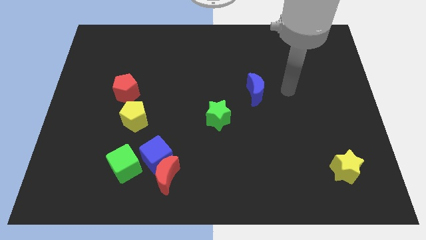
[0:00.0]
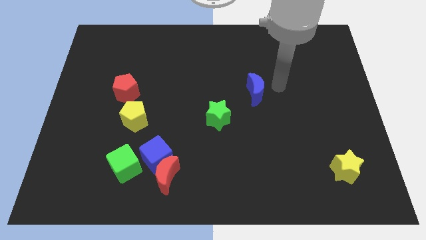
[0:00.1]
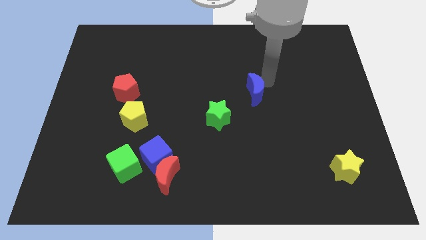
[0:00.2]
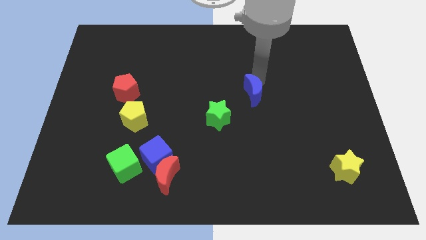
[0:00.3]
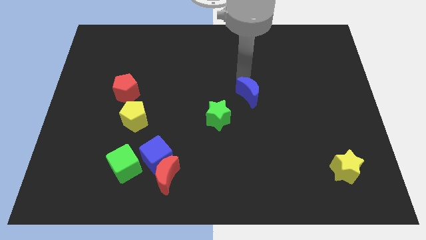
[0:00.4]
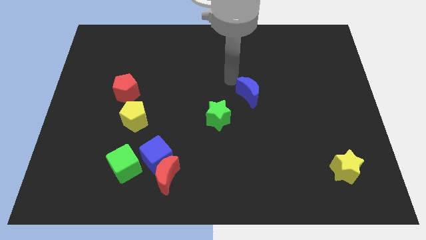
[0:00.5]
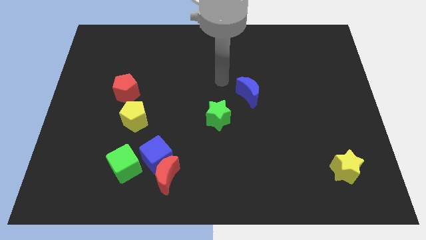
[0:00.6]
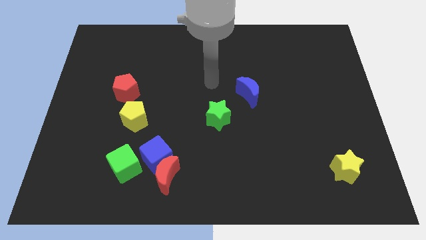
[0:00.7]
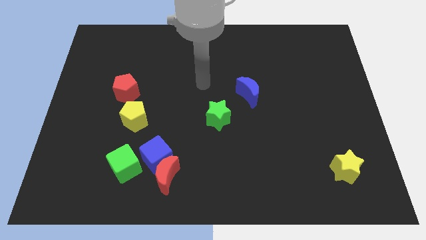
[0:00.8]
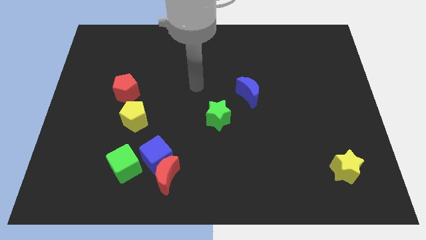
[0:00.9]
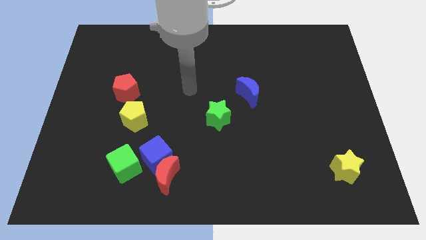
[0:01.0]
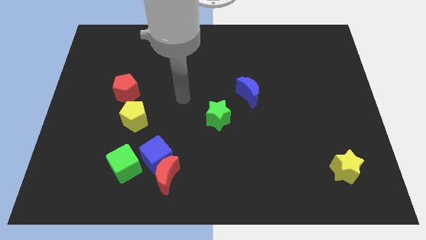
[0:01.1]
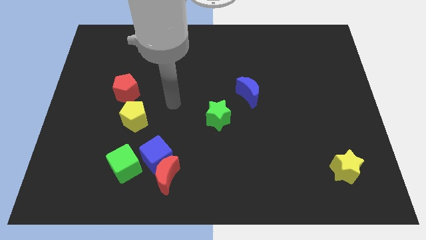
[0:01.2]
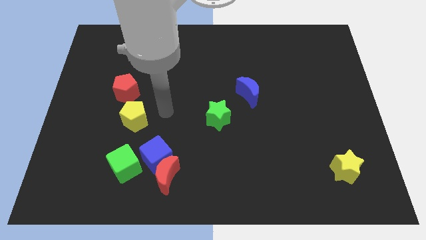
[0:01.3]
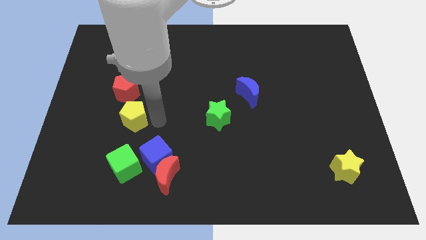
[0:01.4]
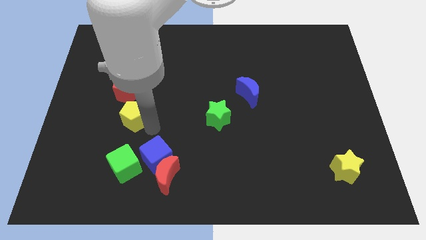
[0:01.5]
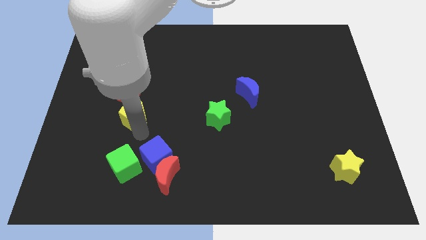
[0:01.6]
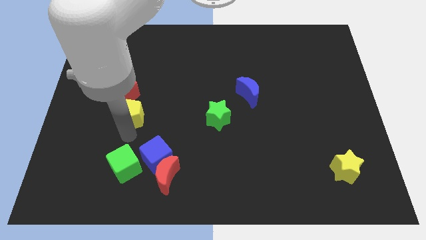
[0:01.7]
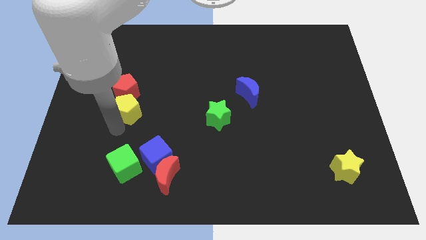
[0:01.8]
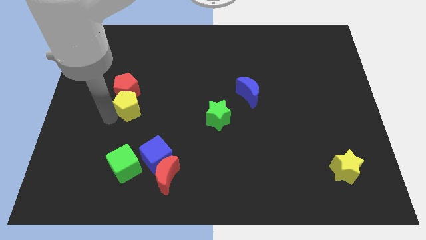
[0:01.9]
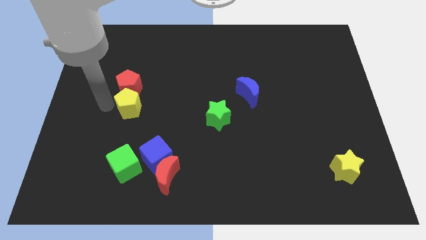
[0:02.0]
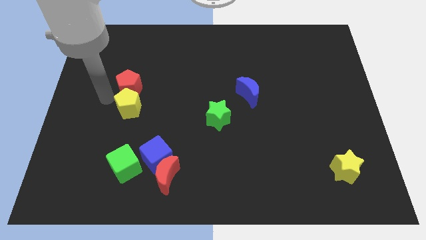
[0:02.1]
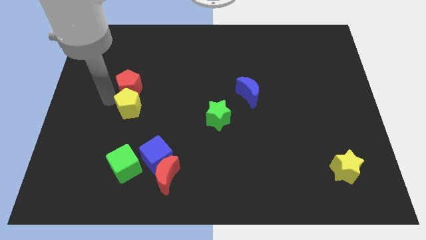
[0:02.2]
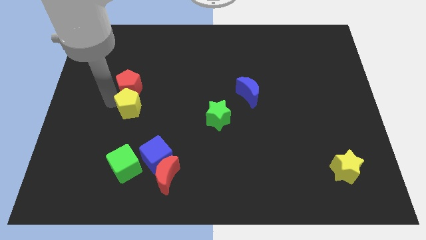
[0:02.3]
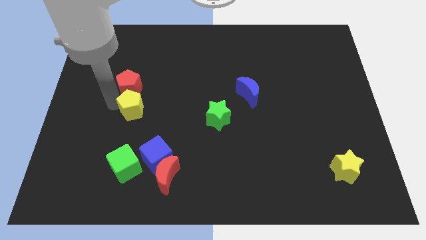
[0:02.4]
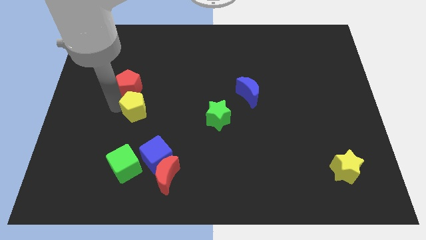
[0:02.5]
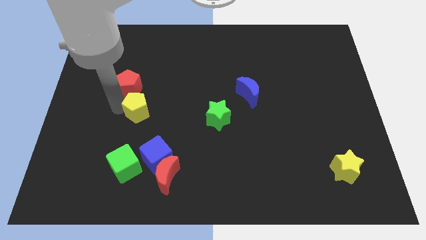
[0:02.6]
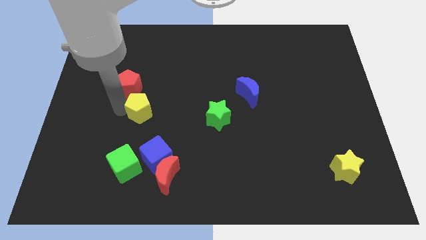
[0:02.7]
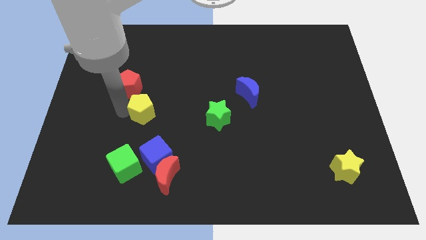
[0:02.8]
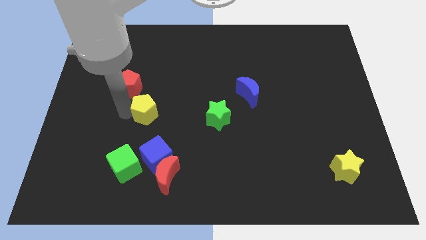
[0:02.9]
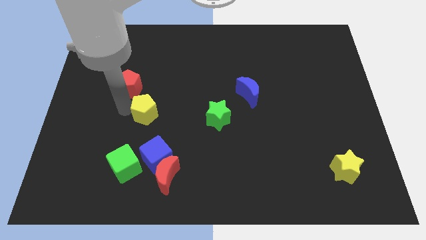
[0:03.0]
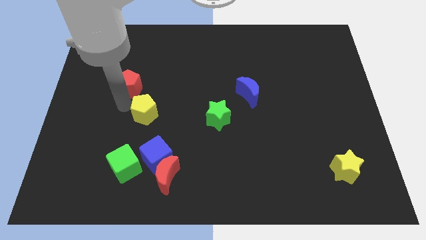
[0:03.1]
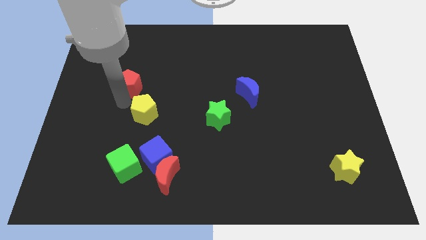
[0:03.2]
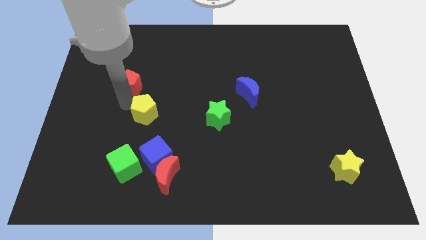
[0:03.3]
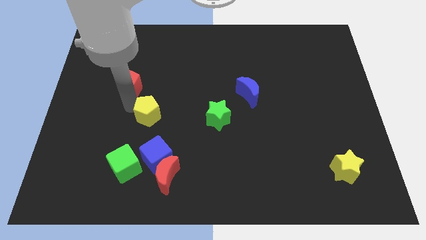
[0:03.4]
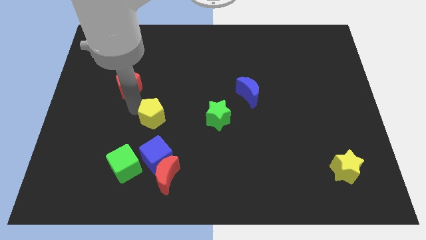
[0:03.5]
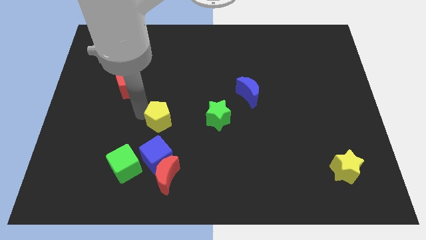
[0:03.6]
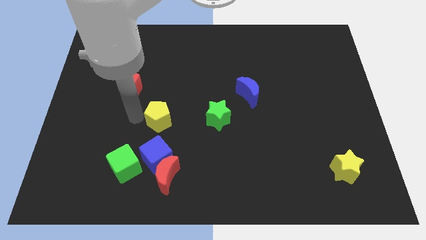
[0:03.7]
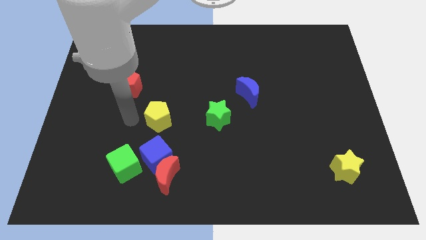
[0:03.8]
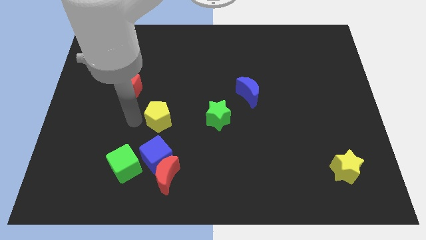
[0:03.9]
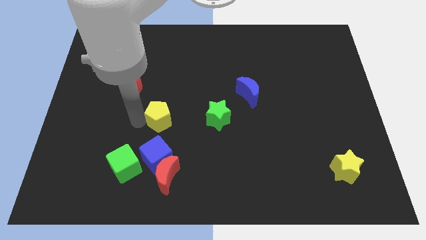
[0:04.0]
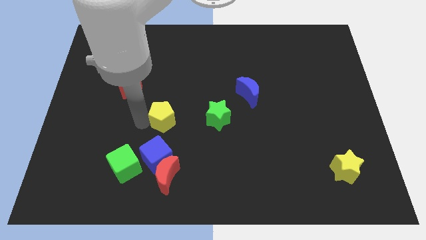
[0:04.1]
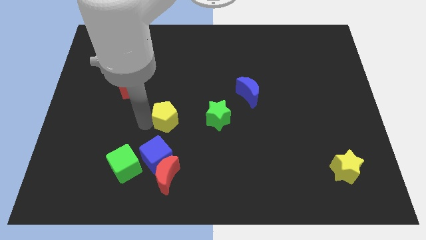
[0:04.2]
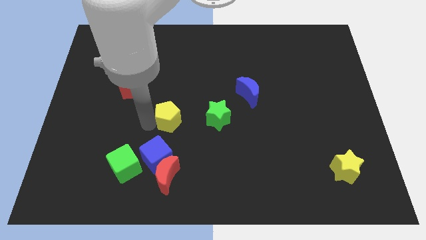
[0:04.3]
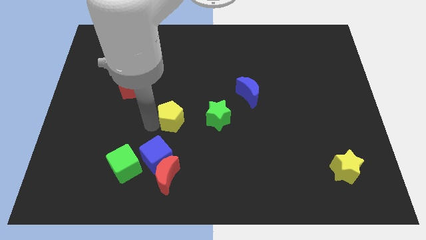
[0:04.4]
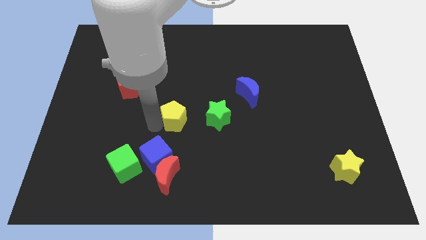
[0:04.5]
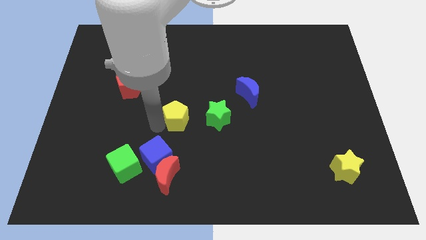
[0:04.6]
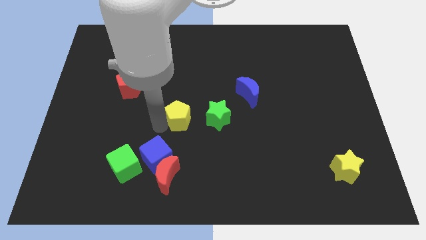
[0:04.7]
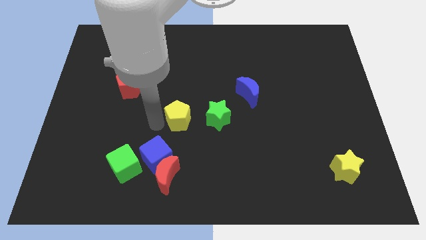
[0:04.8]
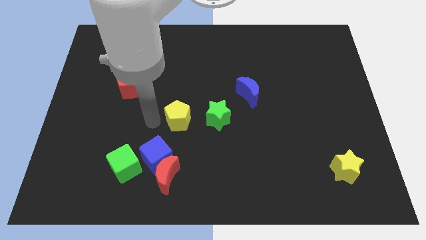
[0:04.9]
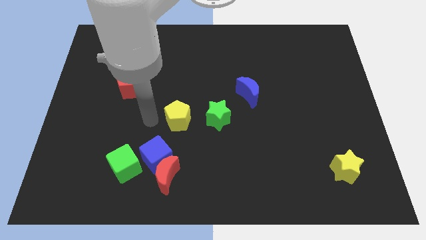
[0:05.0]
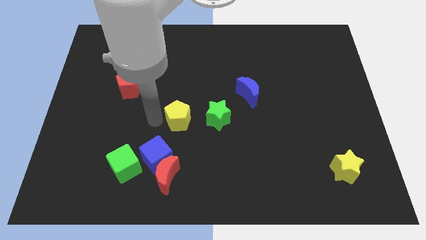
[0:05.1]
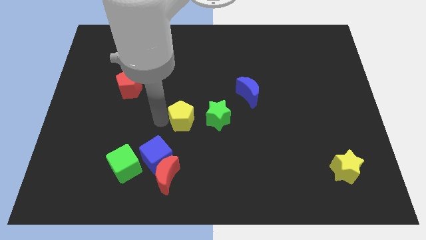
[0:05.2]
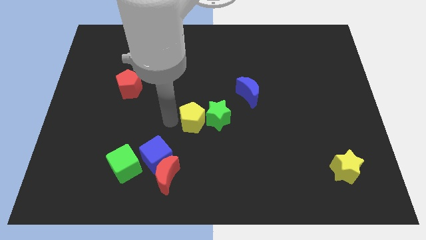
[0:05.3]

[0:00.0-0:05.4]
move the yellow pentagon towards the green star

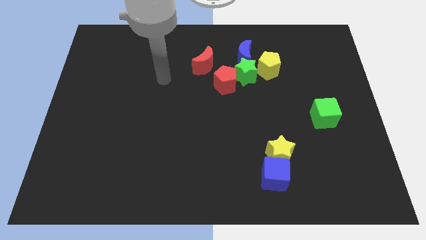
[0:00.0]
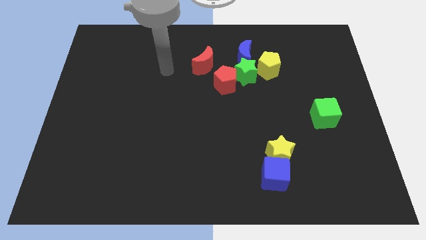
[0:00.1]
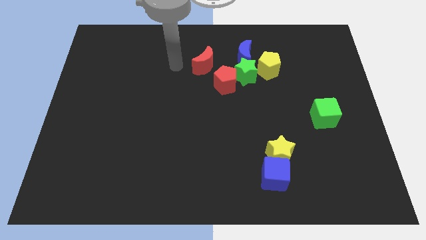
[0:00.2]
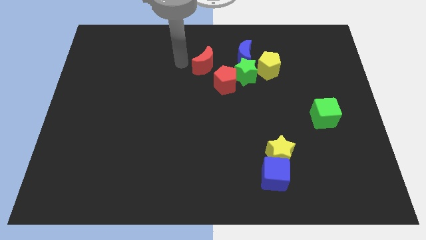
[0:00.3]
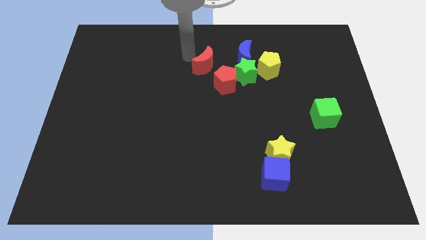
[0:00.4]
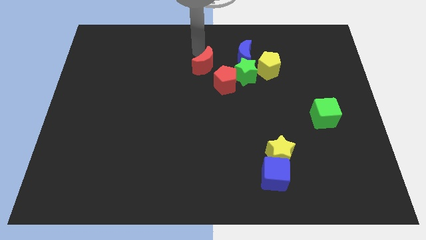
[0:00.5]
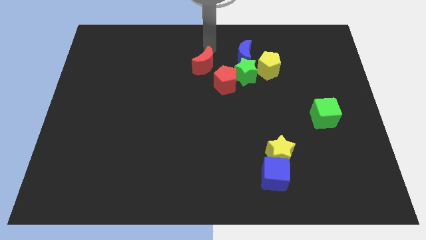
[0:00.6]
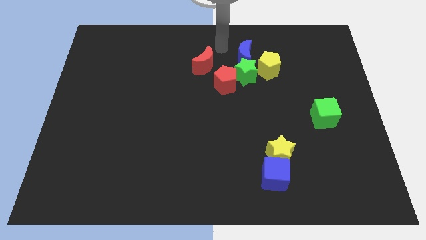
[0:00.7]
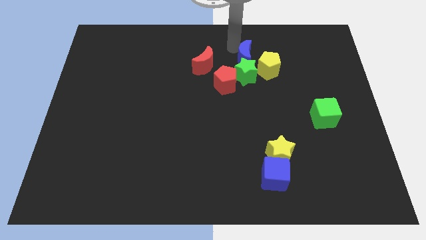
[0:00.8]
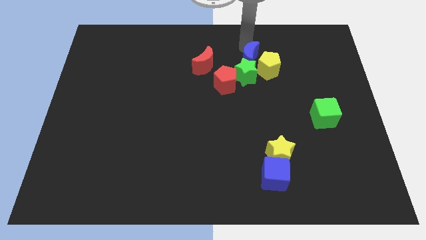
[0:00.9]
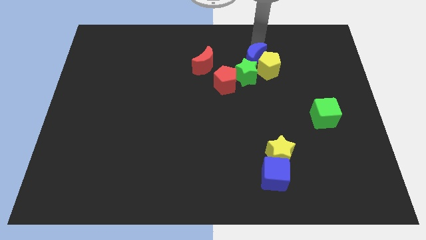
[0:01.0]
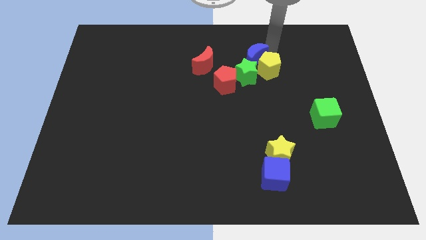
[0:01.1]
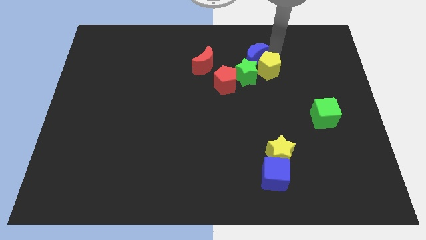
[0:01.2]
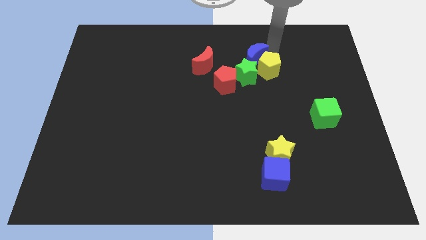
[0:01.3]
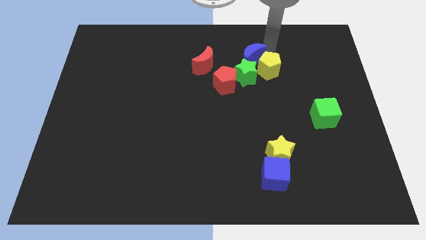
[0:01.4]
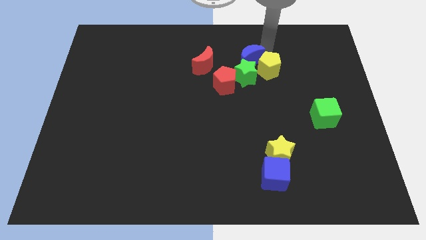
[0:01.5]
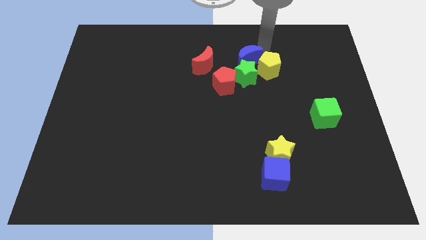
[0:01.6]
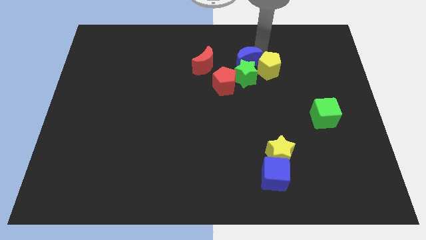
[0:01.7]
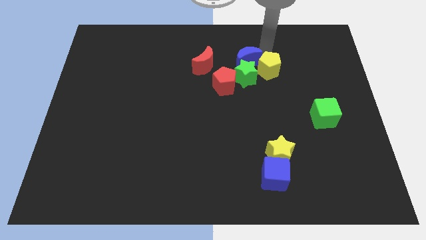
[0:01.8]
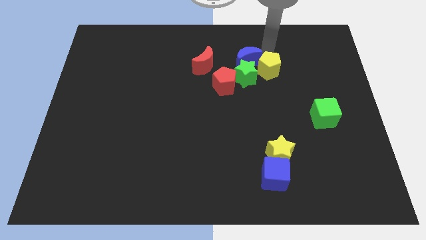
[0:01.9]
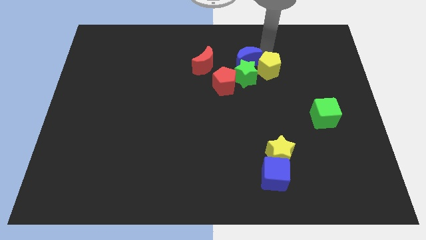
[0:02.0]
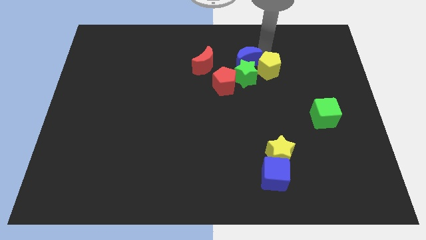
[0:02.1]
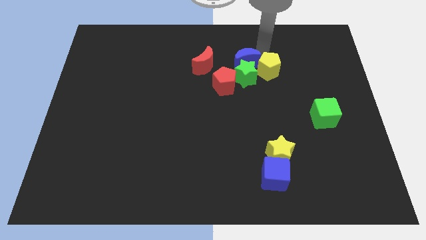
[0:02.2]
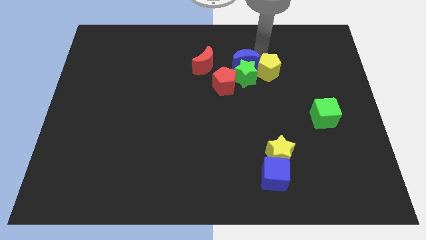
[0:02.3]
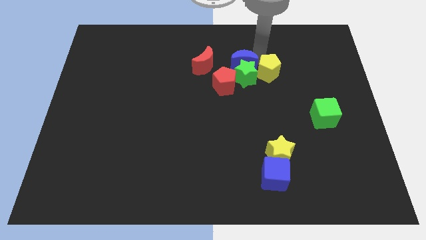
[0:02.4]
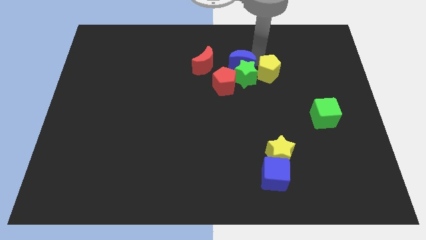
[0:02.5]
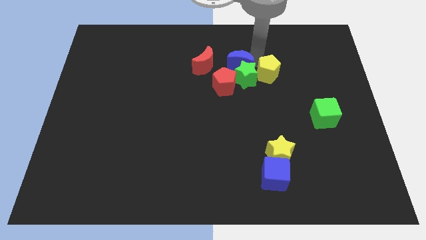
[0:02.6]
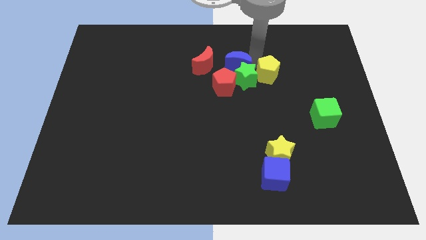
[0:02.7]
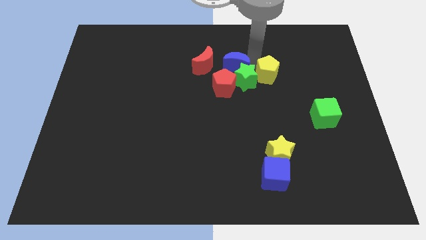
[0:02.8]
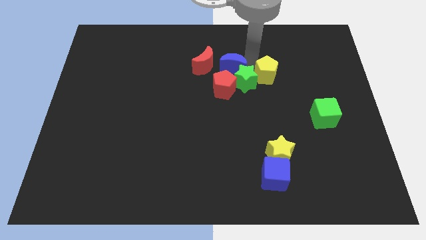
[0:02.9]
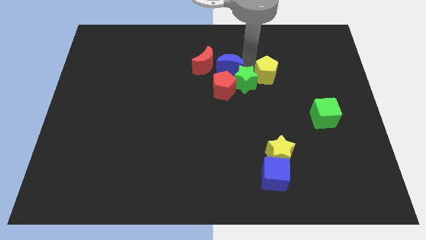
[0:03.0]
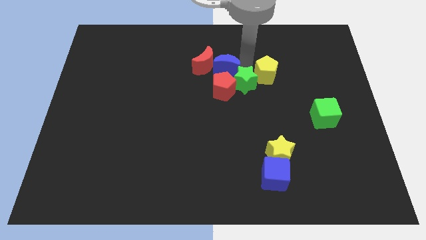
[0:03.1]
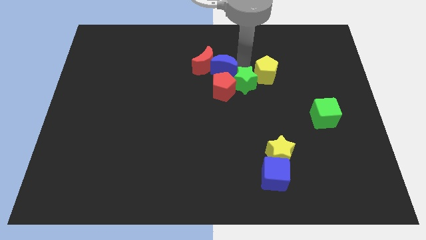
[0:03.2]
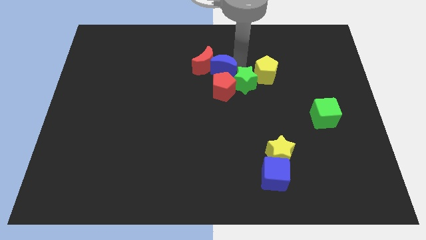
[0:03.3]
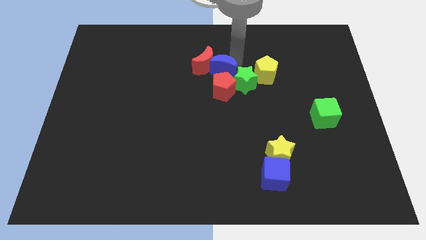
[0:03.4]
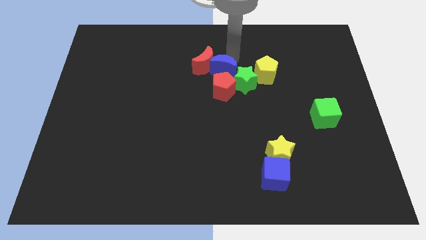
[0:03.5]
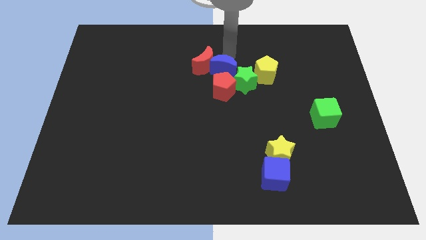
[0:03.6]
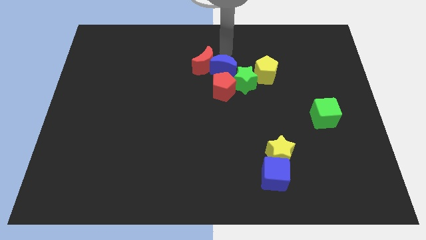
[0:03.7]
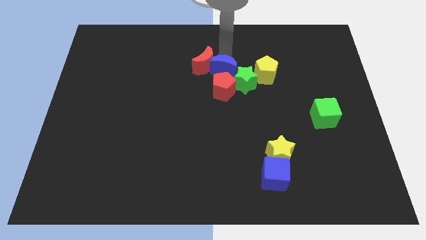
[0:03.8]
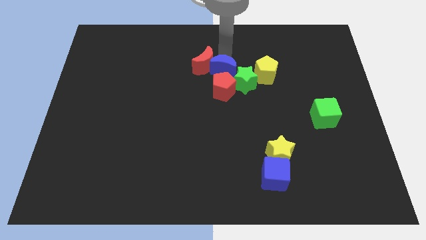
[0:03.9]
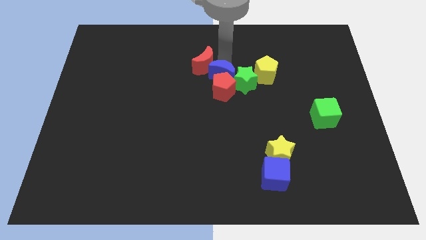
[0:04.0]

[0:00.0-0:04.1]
move the blue moon next to the red pentagon
